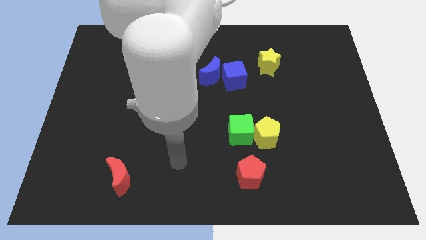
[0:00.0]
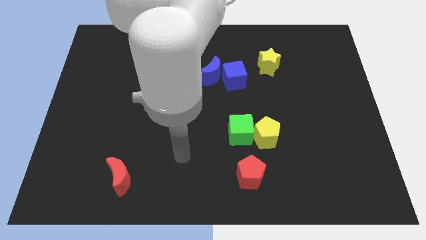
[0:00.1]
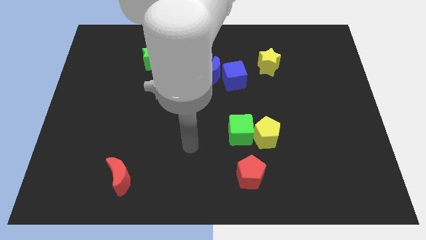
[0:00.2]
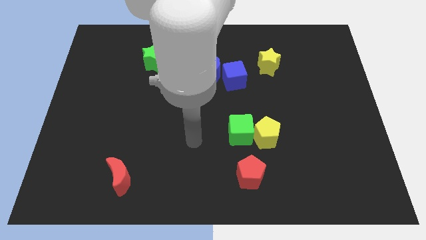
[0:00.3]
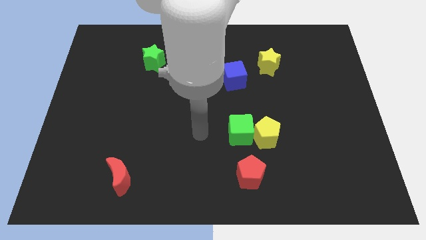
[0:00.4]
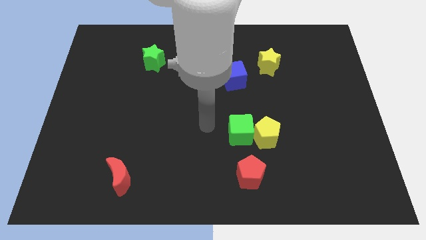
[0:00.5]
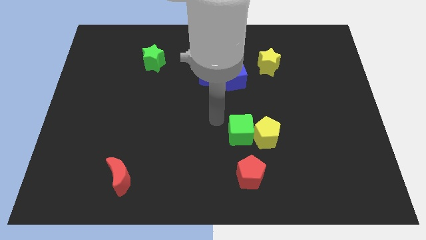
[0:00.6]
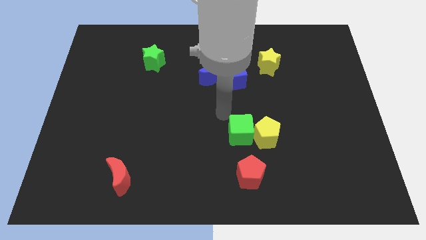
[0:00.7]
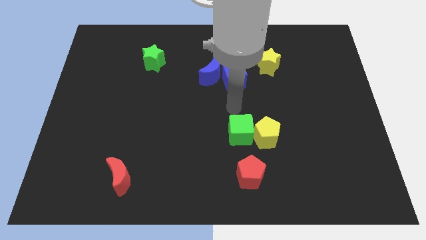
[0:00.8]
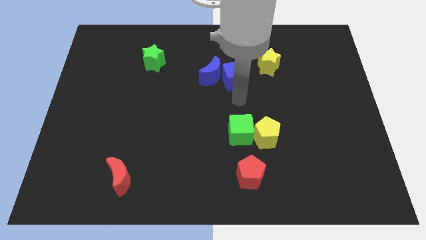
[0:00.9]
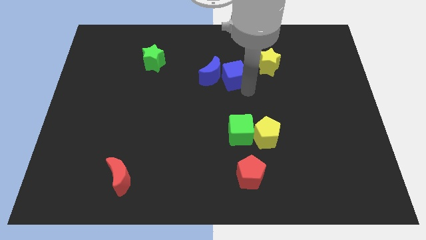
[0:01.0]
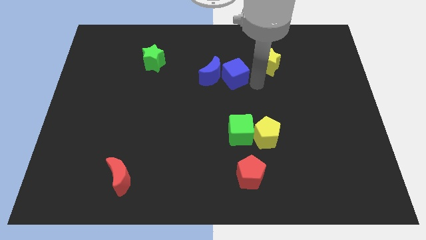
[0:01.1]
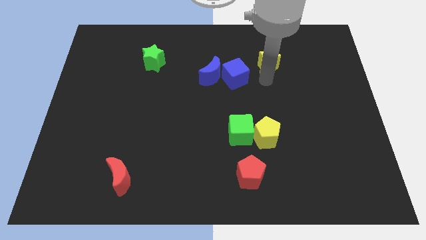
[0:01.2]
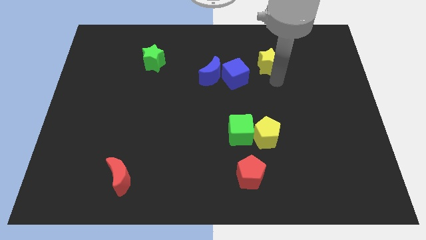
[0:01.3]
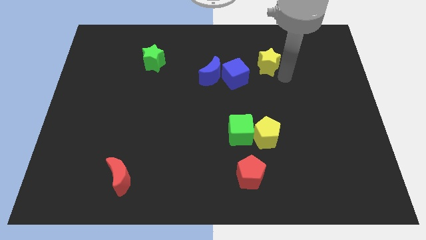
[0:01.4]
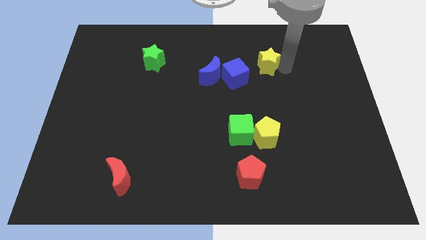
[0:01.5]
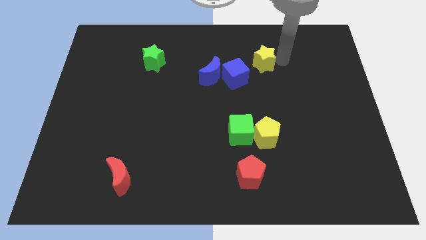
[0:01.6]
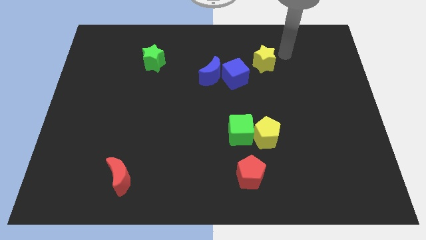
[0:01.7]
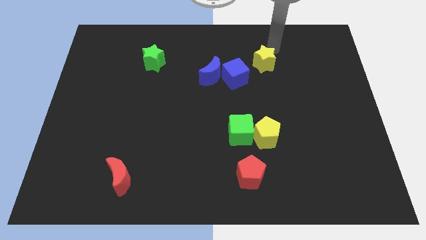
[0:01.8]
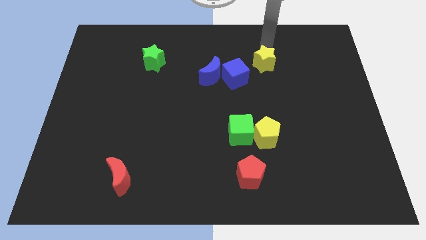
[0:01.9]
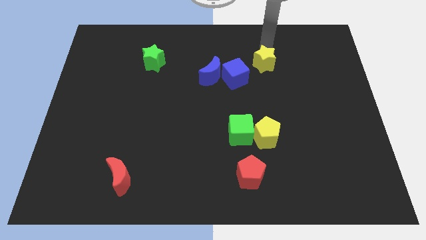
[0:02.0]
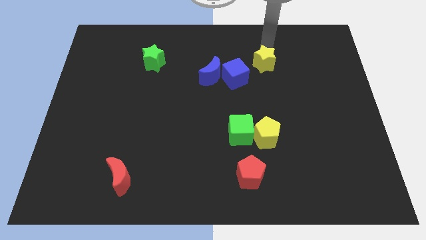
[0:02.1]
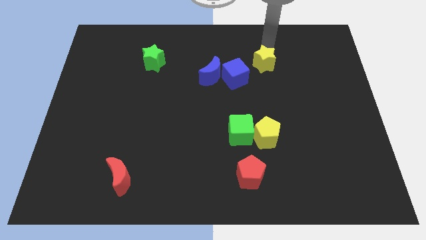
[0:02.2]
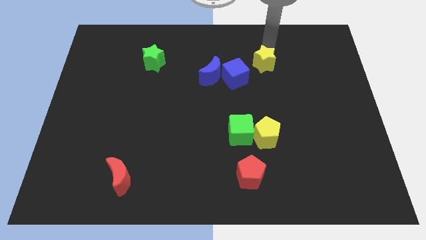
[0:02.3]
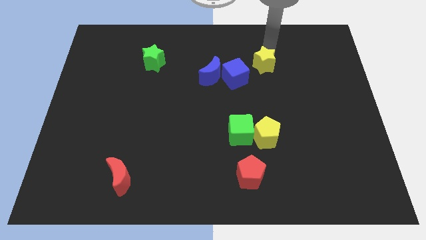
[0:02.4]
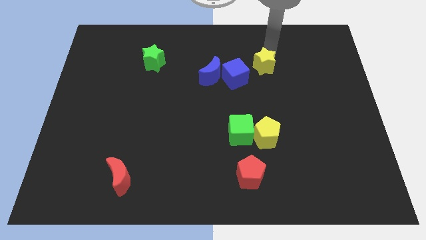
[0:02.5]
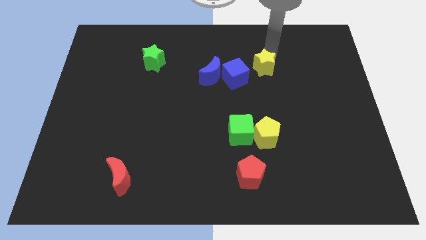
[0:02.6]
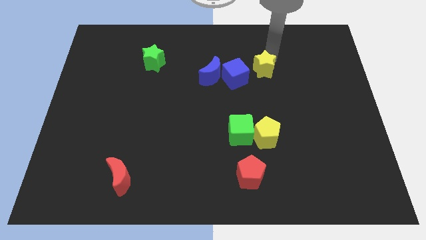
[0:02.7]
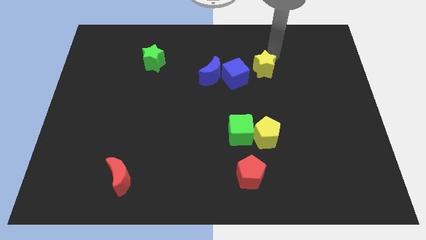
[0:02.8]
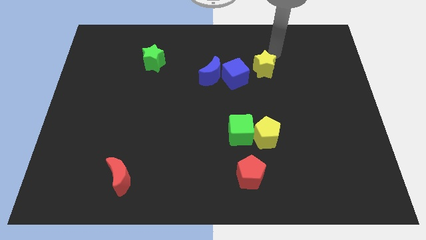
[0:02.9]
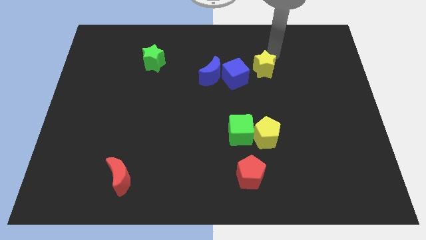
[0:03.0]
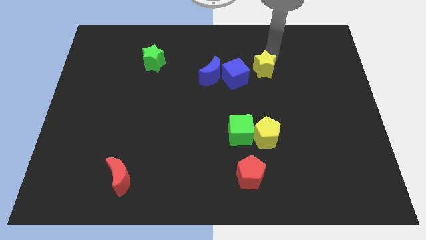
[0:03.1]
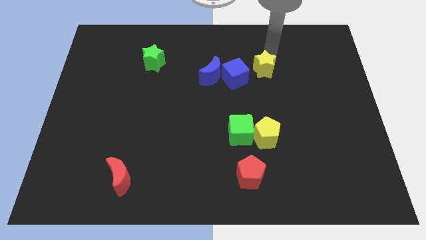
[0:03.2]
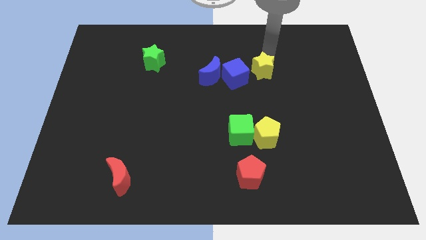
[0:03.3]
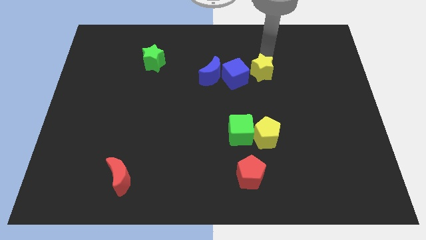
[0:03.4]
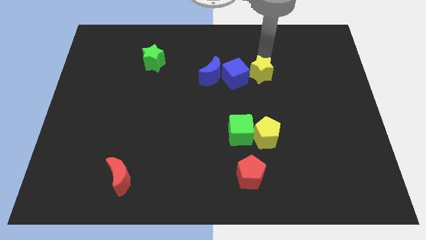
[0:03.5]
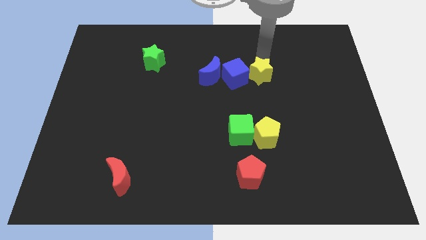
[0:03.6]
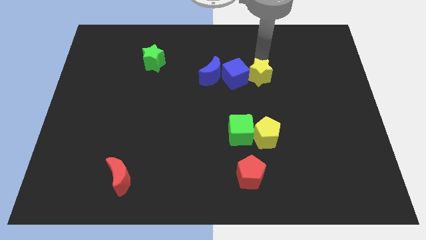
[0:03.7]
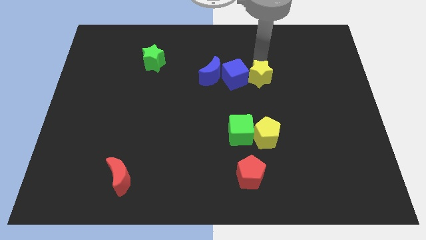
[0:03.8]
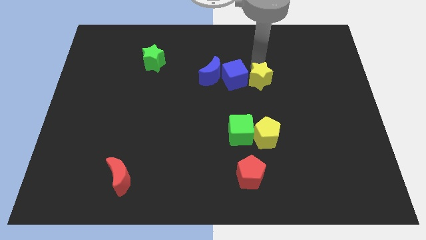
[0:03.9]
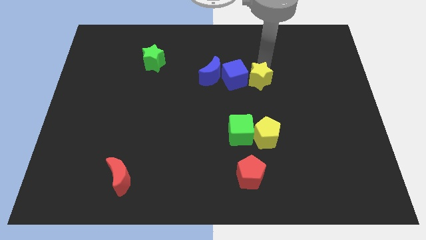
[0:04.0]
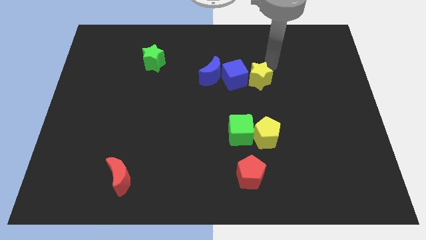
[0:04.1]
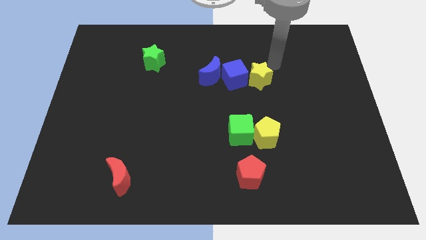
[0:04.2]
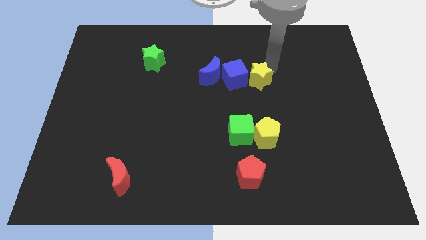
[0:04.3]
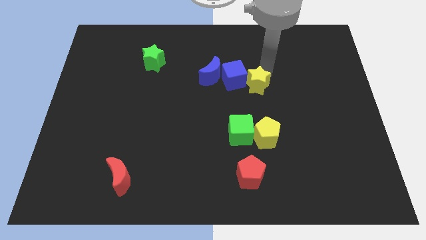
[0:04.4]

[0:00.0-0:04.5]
move the yellow star down and then to the left a little bit

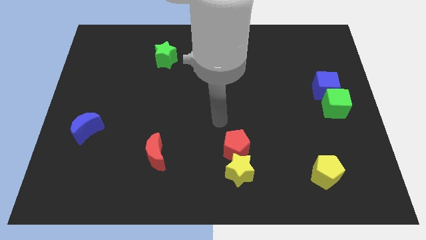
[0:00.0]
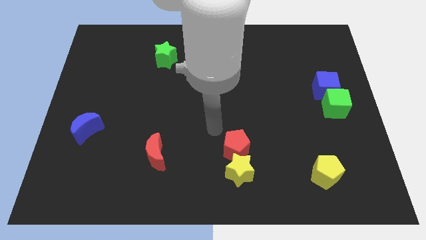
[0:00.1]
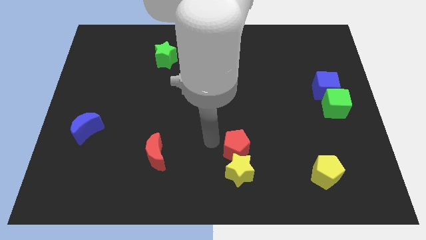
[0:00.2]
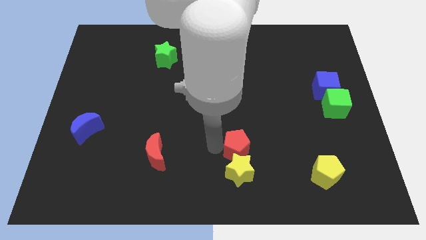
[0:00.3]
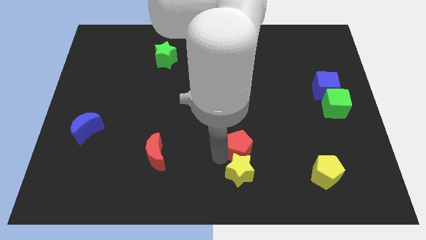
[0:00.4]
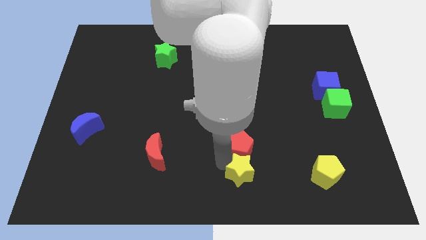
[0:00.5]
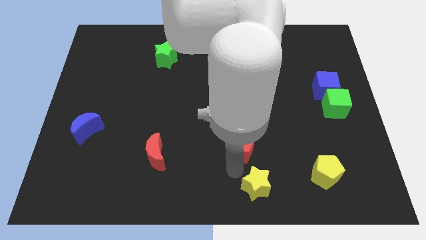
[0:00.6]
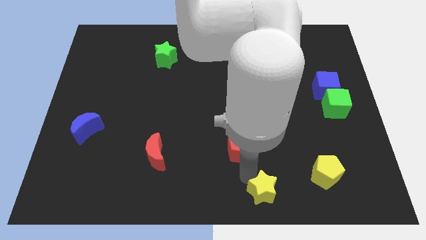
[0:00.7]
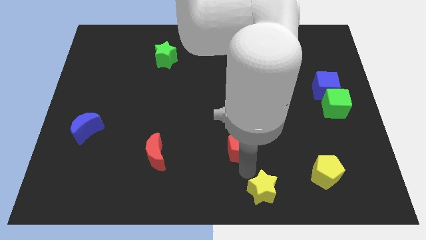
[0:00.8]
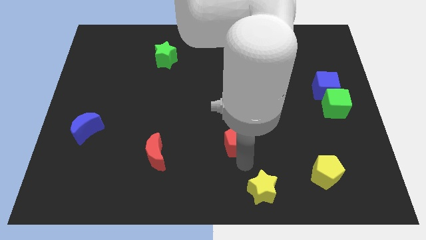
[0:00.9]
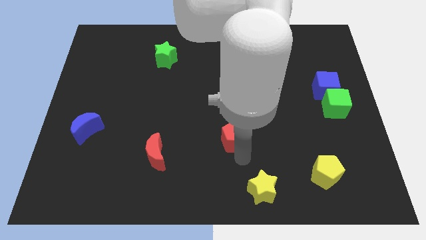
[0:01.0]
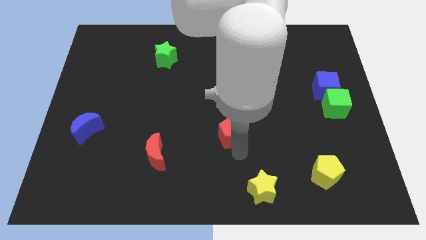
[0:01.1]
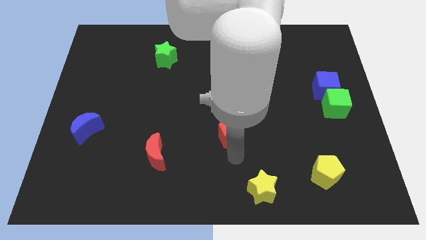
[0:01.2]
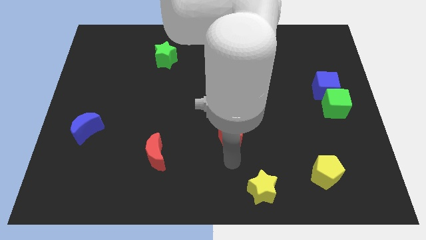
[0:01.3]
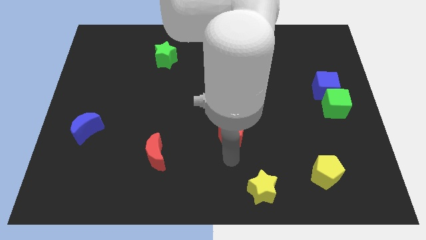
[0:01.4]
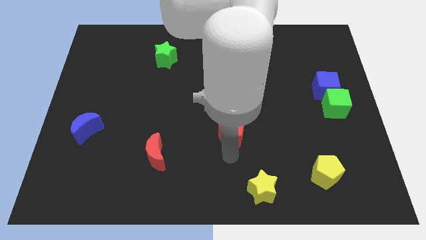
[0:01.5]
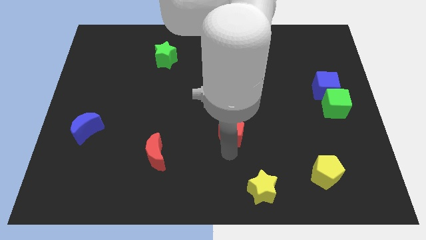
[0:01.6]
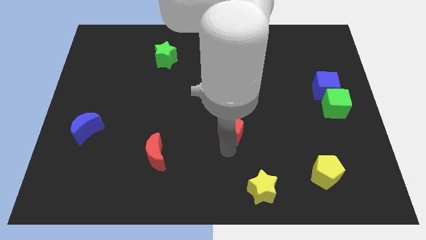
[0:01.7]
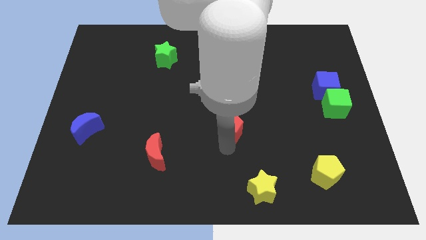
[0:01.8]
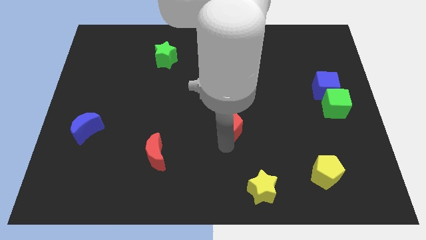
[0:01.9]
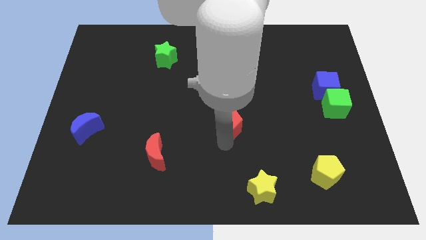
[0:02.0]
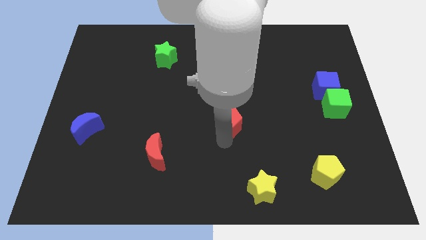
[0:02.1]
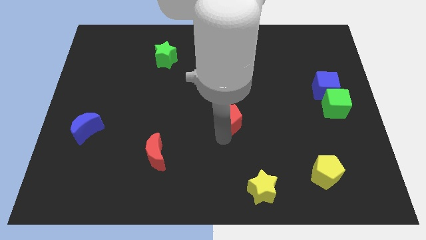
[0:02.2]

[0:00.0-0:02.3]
slide the red pentagon somewhat up

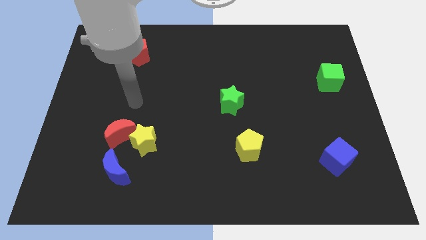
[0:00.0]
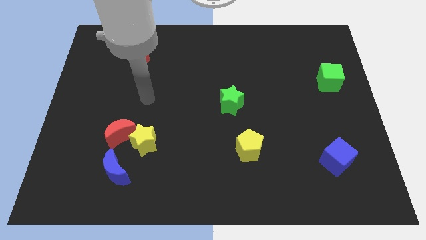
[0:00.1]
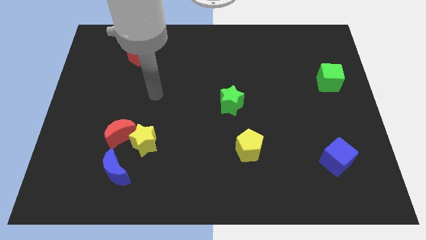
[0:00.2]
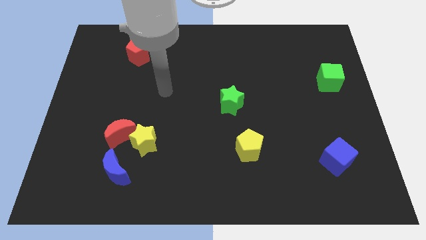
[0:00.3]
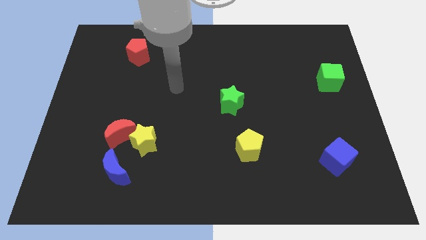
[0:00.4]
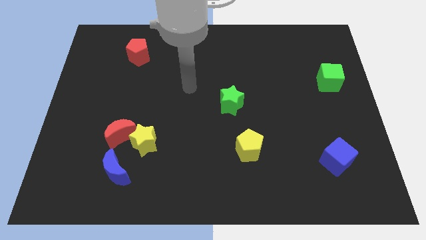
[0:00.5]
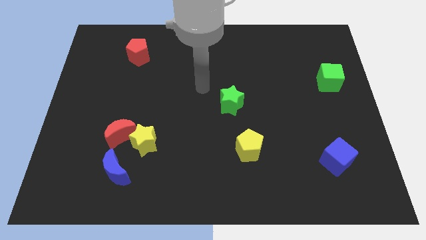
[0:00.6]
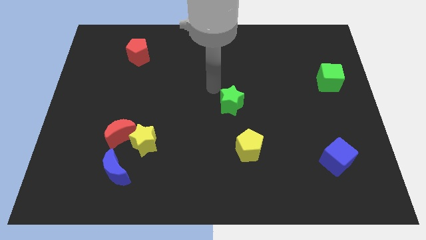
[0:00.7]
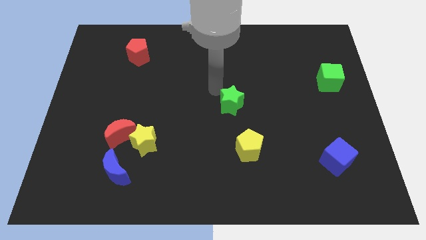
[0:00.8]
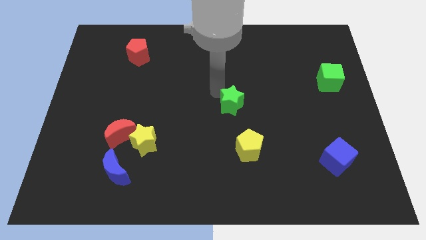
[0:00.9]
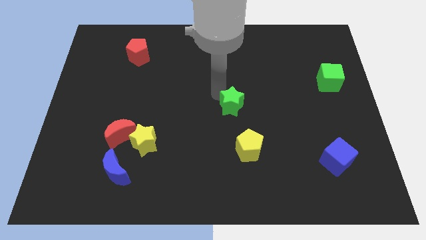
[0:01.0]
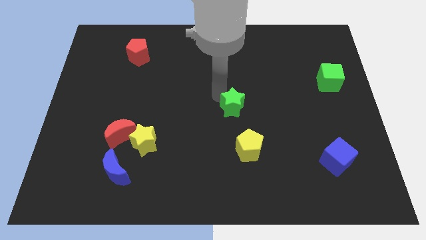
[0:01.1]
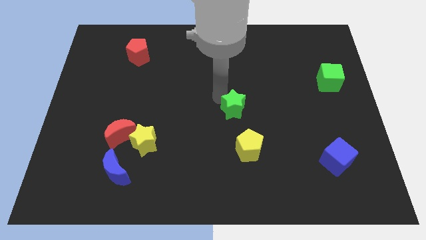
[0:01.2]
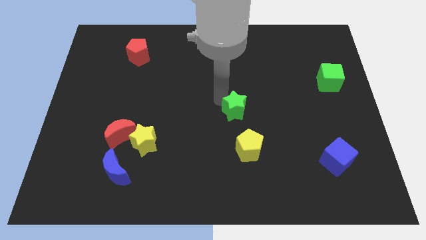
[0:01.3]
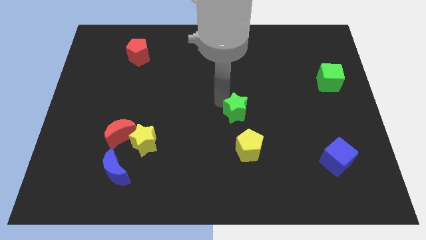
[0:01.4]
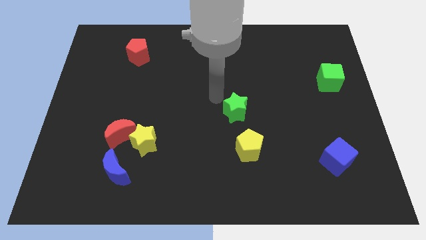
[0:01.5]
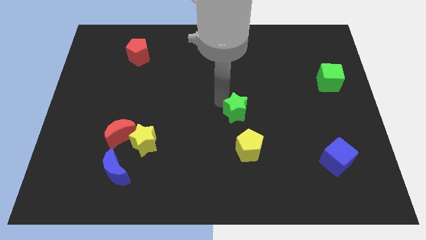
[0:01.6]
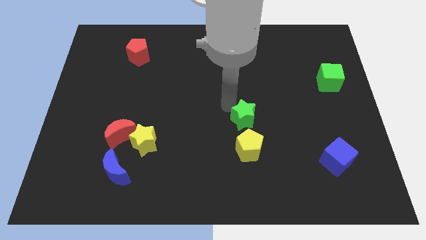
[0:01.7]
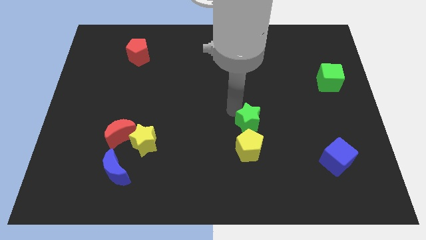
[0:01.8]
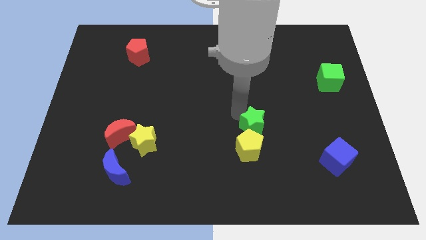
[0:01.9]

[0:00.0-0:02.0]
slightly push the green star diagonally down and right
